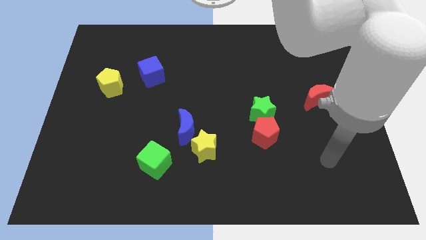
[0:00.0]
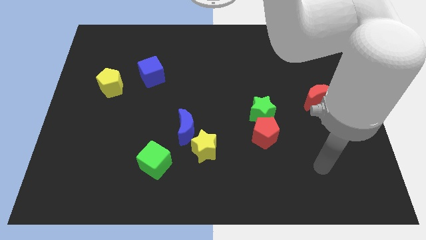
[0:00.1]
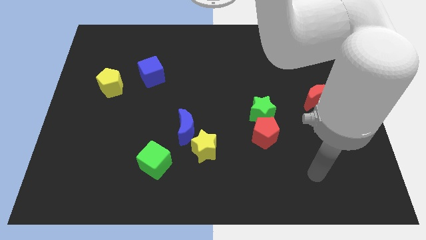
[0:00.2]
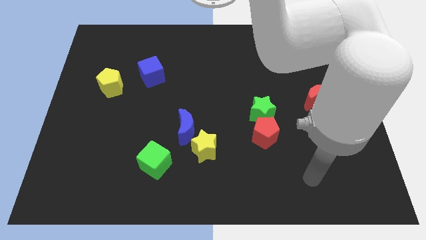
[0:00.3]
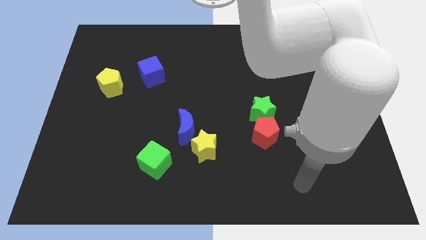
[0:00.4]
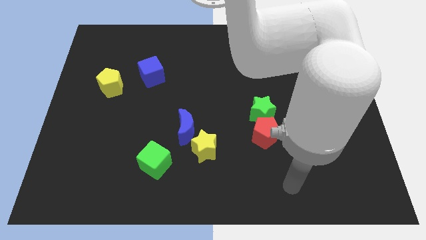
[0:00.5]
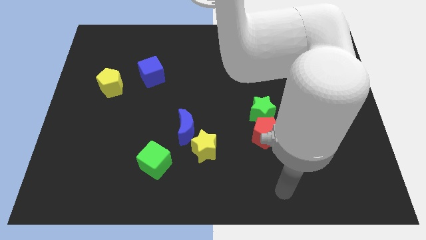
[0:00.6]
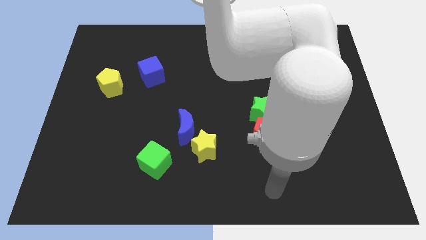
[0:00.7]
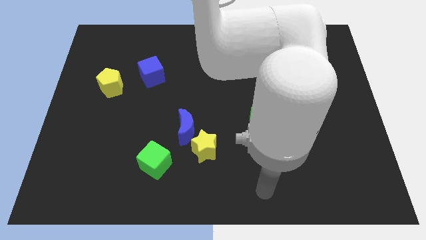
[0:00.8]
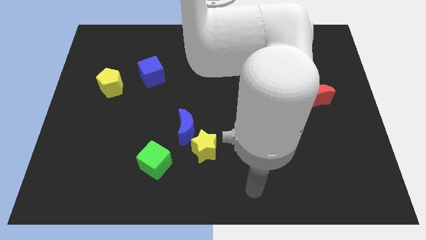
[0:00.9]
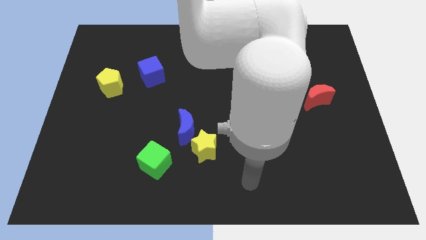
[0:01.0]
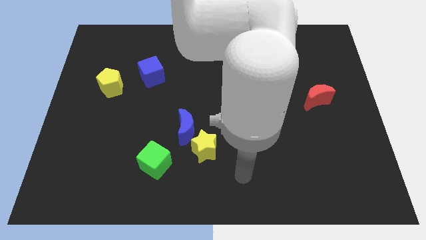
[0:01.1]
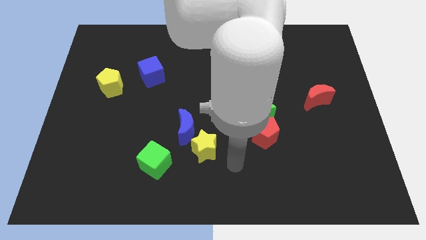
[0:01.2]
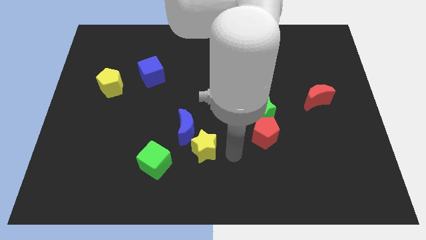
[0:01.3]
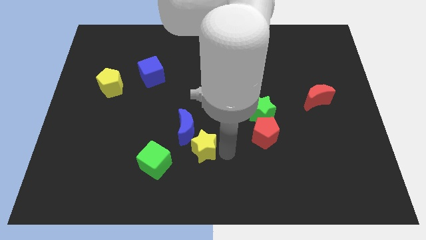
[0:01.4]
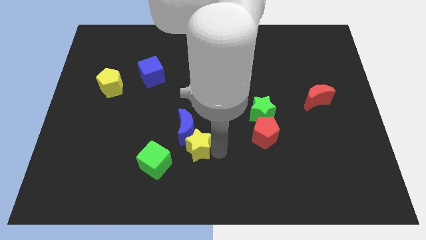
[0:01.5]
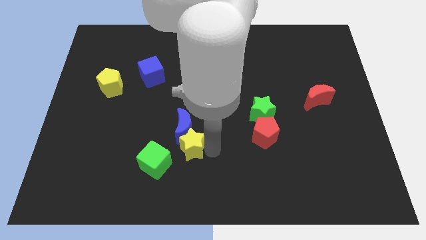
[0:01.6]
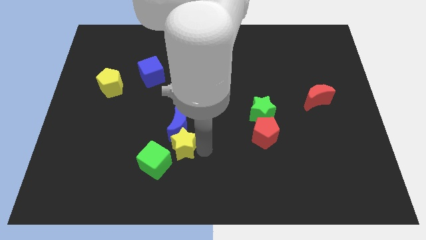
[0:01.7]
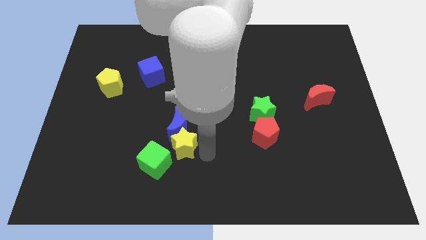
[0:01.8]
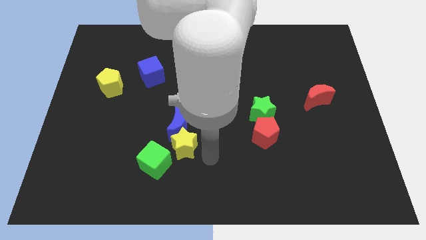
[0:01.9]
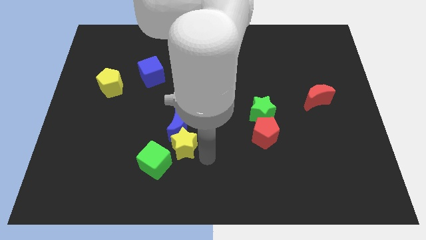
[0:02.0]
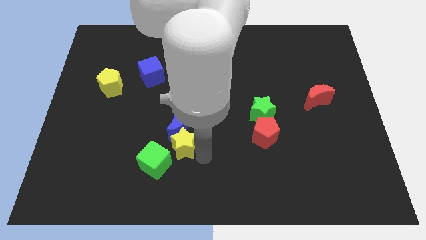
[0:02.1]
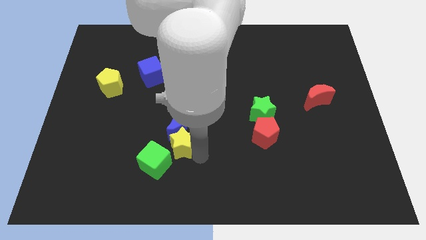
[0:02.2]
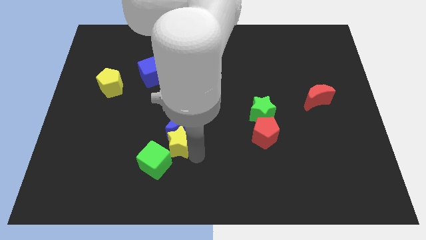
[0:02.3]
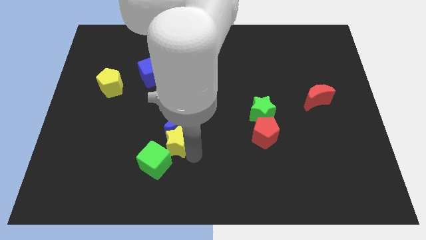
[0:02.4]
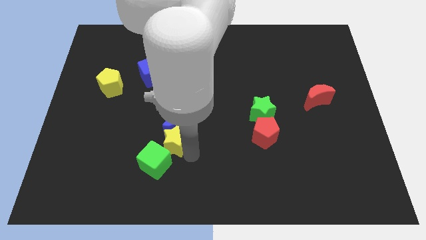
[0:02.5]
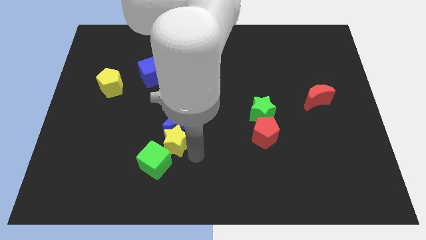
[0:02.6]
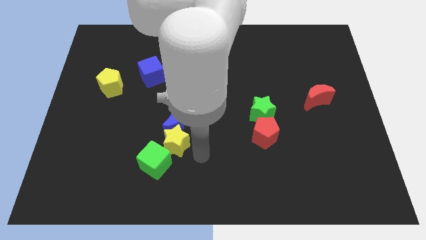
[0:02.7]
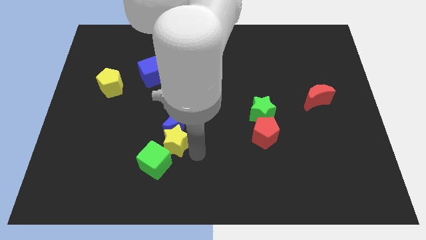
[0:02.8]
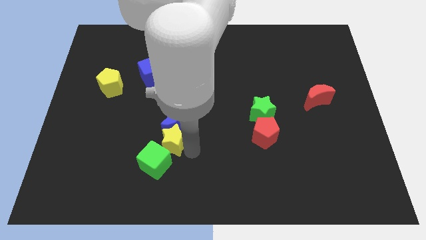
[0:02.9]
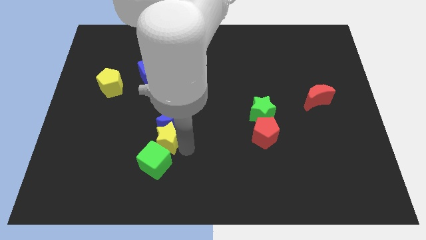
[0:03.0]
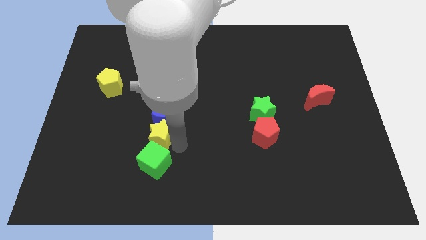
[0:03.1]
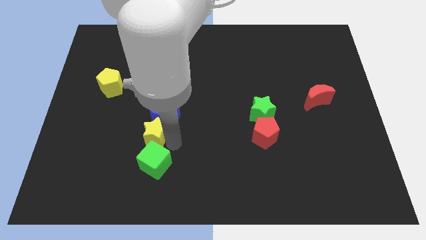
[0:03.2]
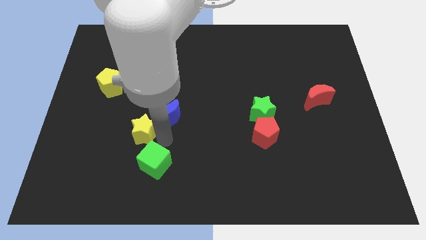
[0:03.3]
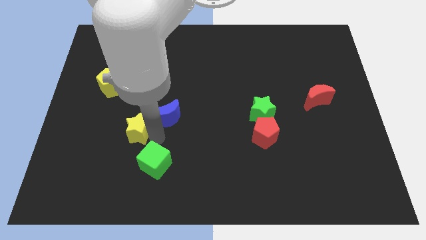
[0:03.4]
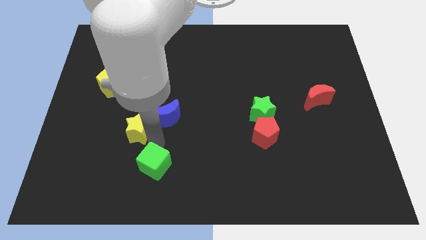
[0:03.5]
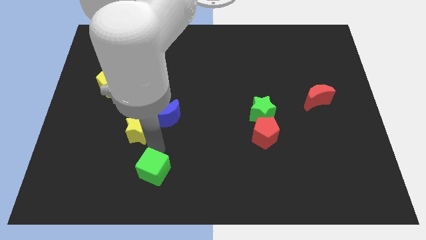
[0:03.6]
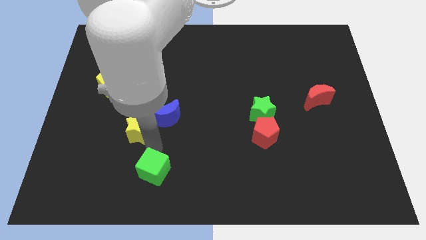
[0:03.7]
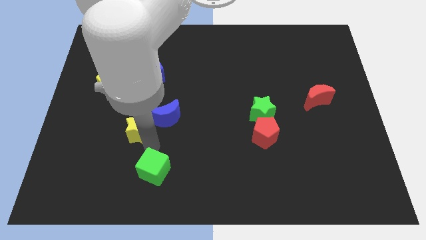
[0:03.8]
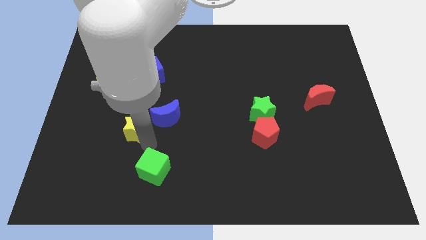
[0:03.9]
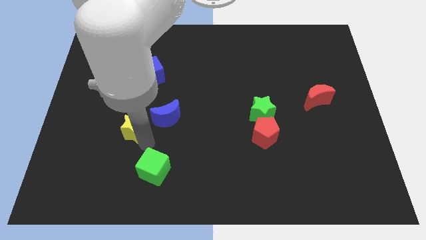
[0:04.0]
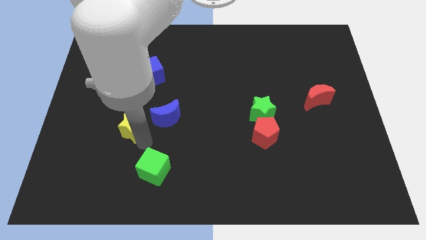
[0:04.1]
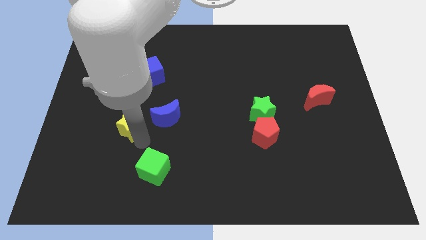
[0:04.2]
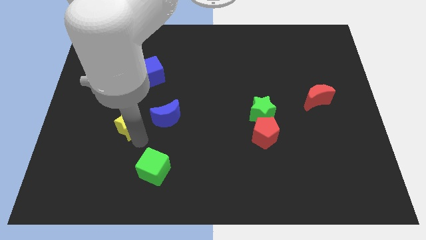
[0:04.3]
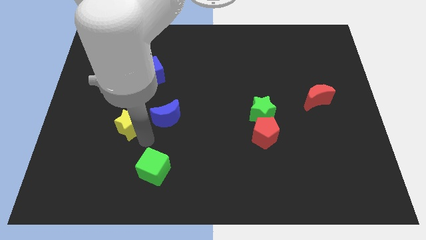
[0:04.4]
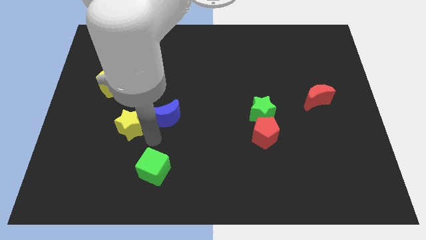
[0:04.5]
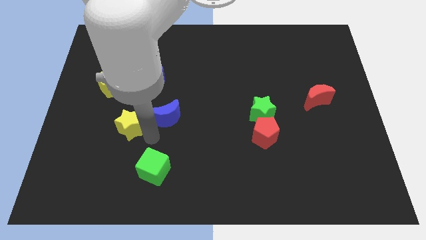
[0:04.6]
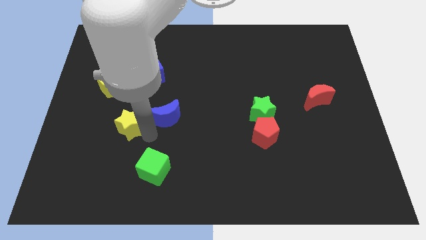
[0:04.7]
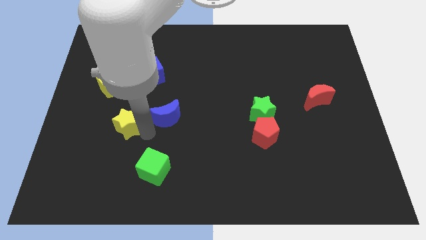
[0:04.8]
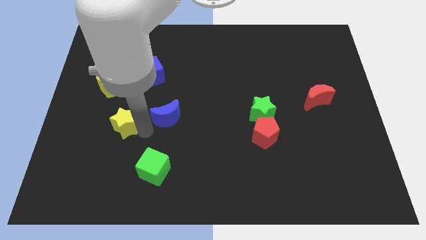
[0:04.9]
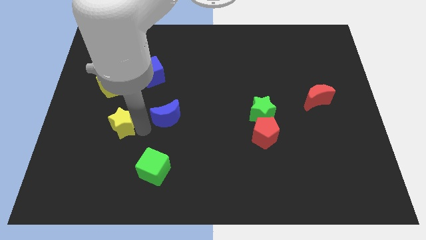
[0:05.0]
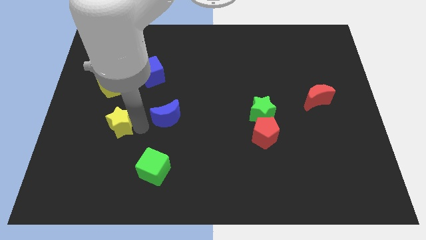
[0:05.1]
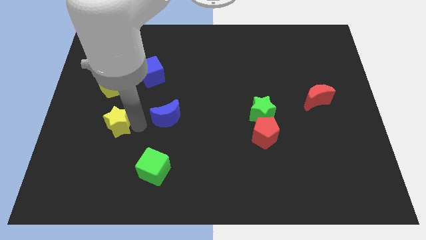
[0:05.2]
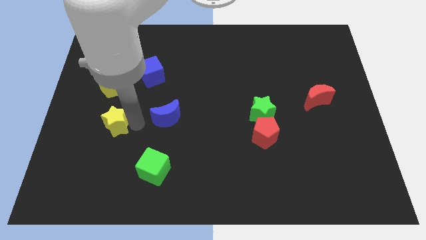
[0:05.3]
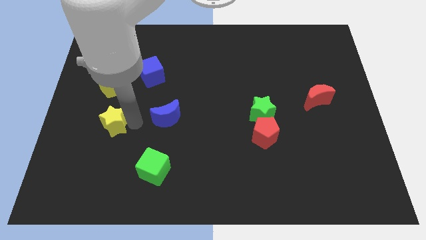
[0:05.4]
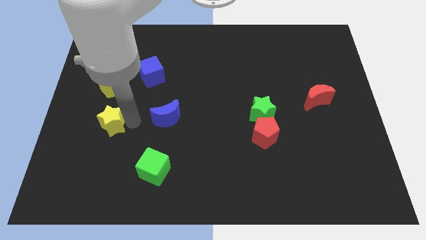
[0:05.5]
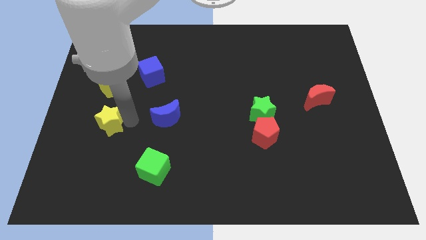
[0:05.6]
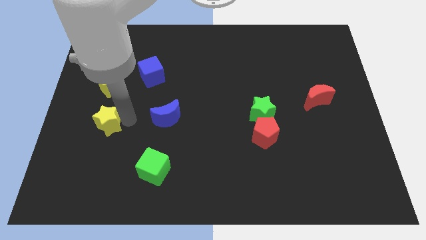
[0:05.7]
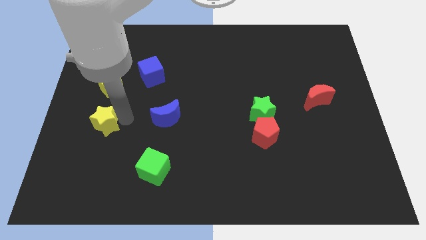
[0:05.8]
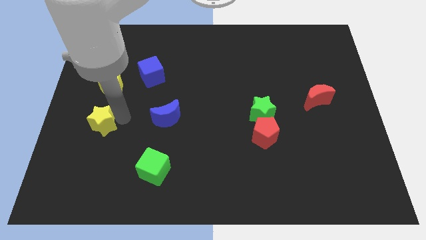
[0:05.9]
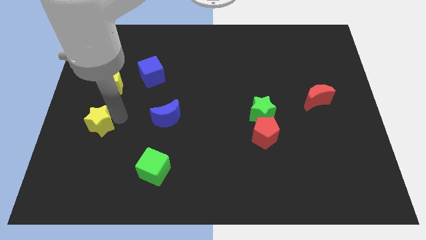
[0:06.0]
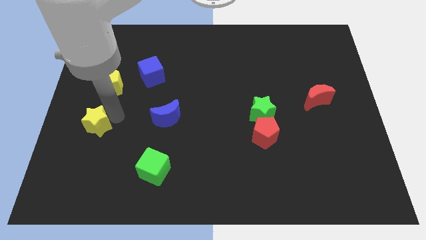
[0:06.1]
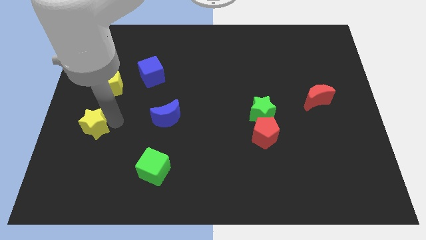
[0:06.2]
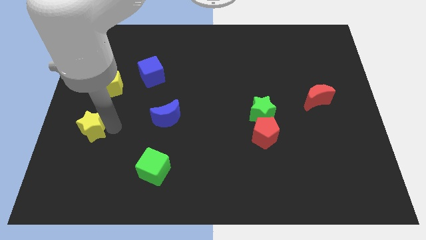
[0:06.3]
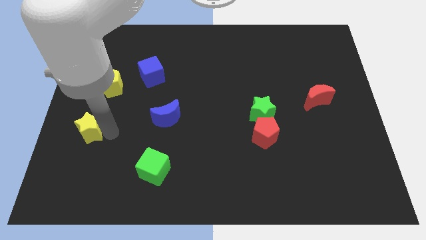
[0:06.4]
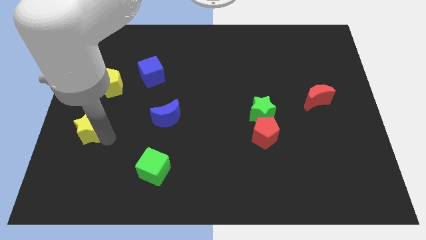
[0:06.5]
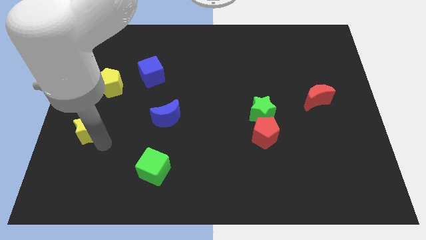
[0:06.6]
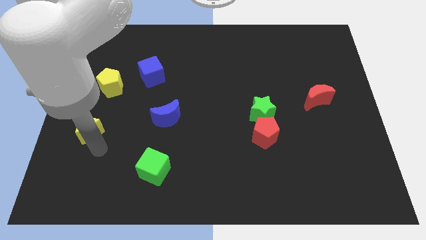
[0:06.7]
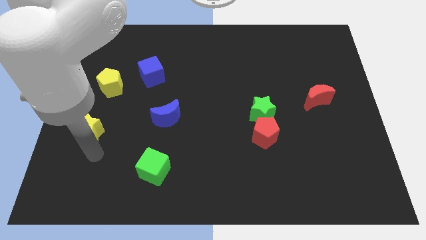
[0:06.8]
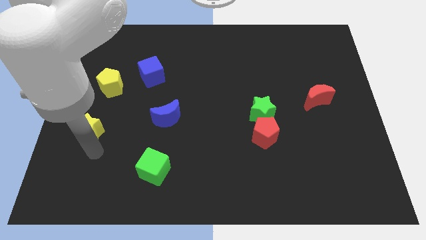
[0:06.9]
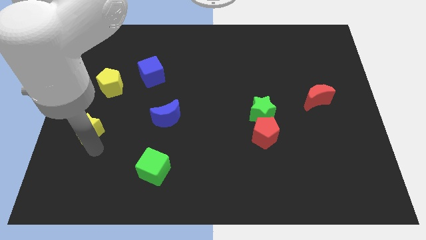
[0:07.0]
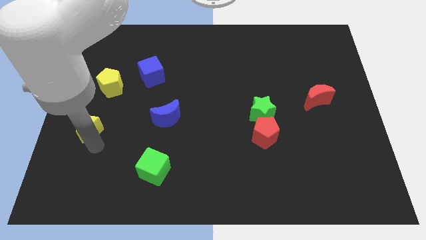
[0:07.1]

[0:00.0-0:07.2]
slide the yellow star to the left side
